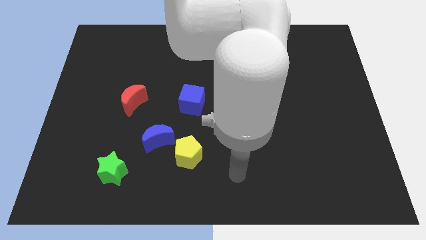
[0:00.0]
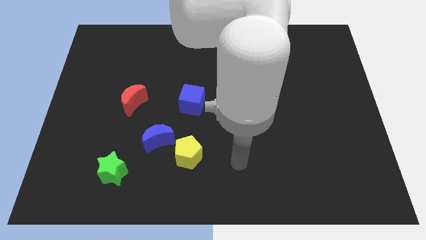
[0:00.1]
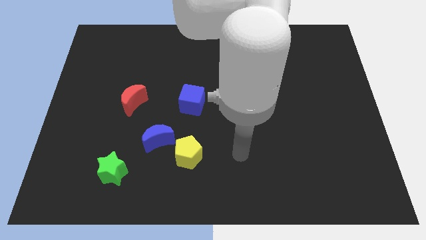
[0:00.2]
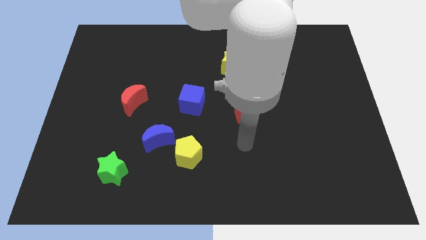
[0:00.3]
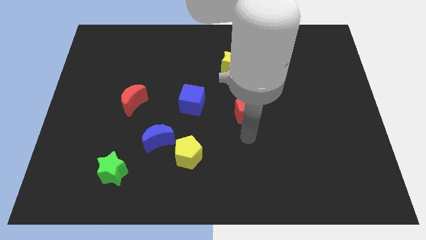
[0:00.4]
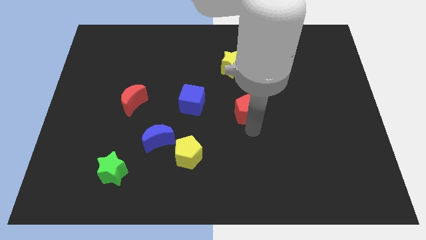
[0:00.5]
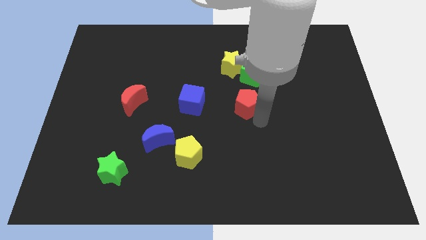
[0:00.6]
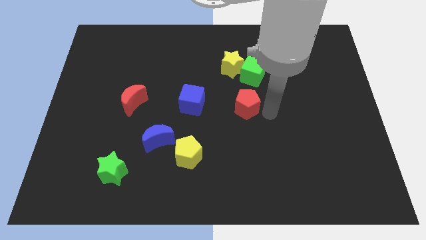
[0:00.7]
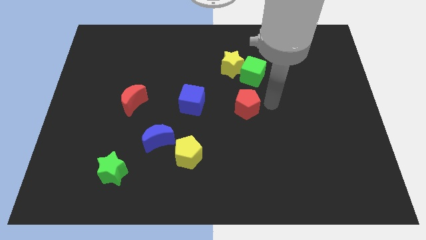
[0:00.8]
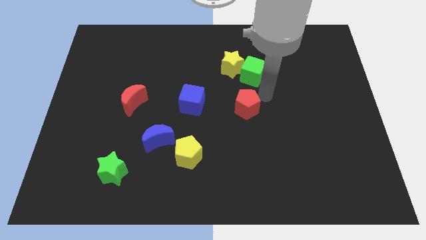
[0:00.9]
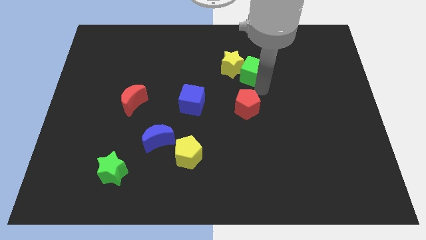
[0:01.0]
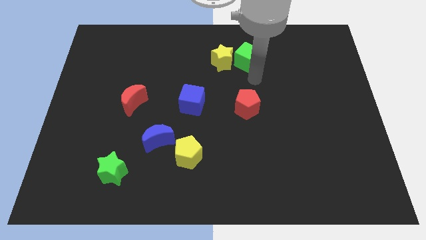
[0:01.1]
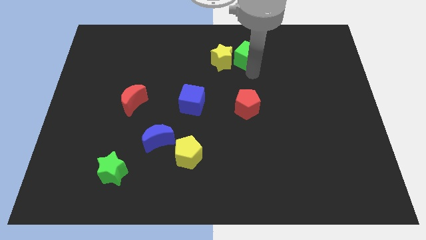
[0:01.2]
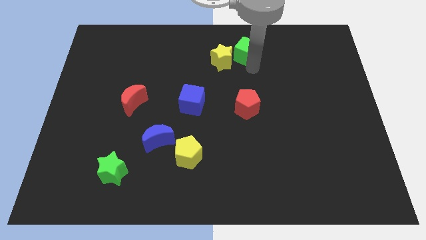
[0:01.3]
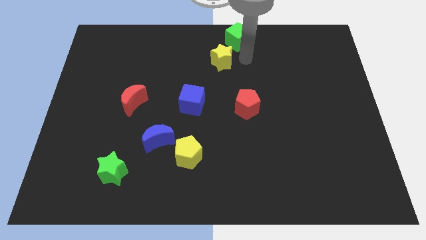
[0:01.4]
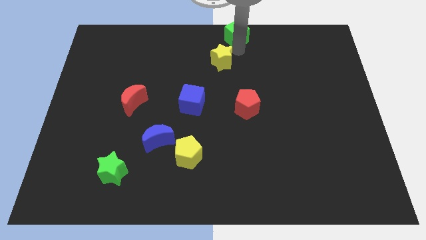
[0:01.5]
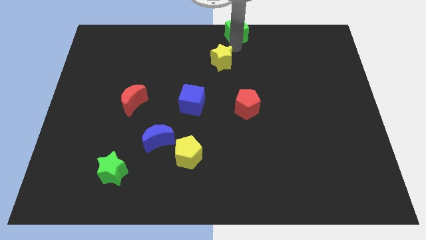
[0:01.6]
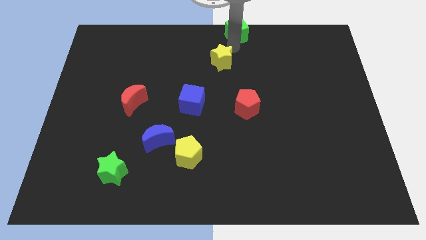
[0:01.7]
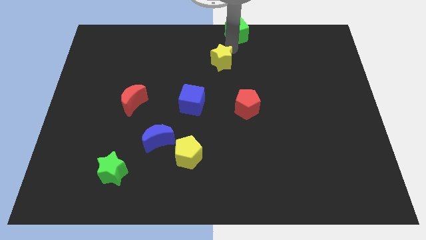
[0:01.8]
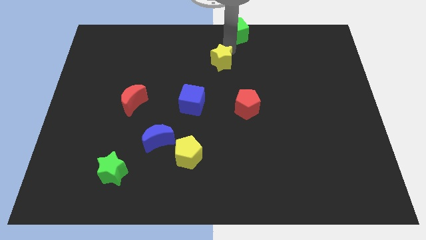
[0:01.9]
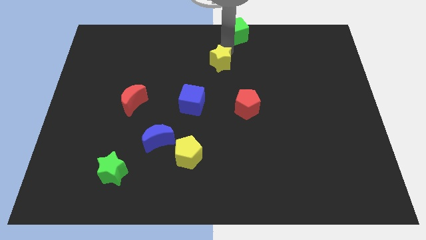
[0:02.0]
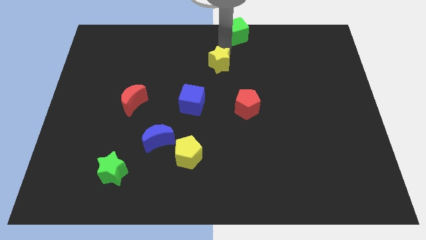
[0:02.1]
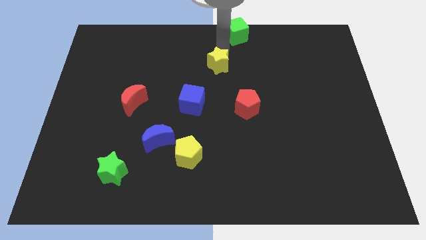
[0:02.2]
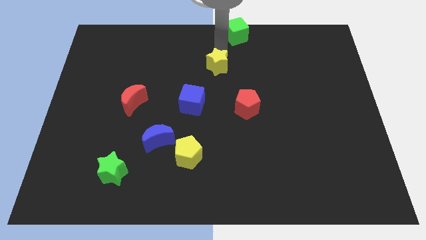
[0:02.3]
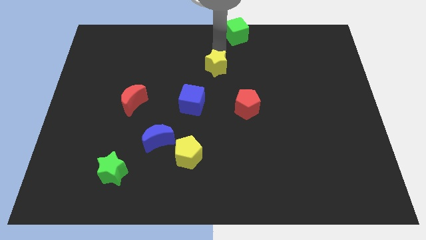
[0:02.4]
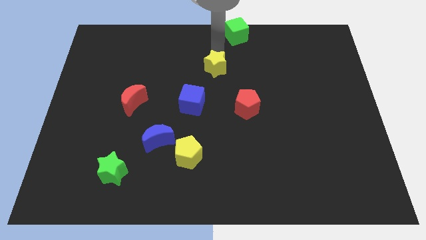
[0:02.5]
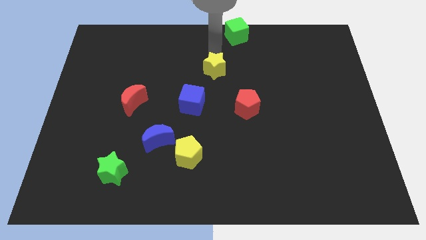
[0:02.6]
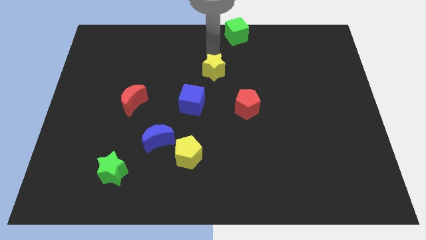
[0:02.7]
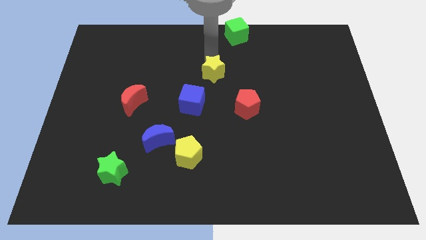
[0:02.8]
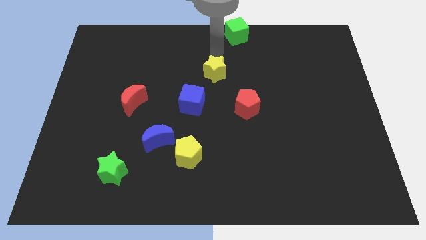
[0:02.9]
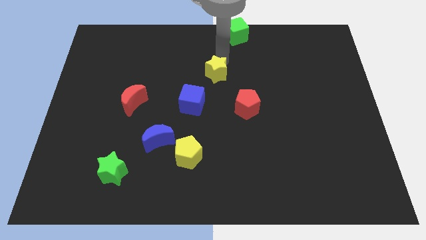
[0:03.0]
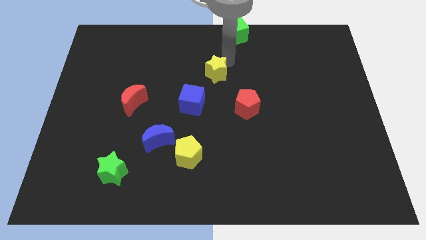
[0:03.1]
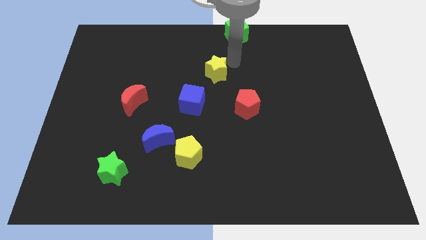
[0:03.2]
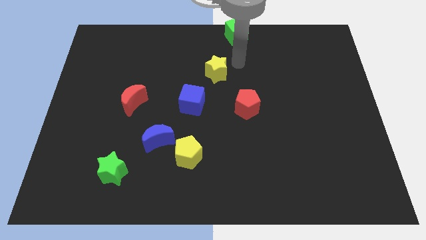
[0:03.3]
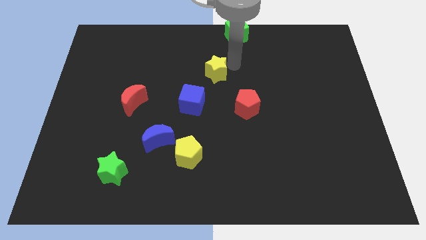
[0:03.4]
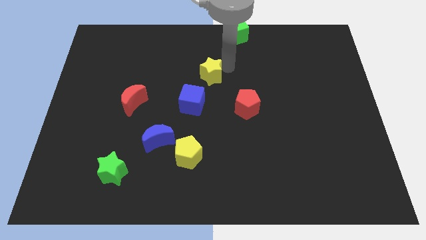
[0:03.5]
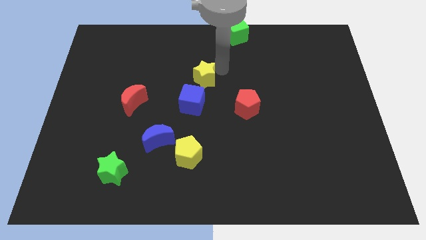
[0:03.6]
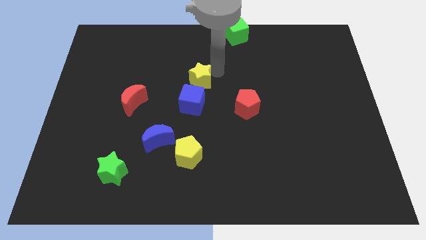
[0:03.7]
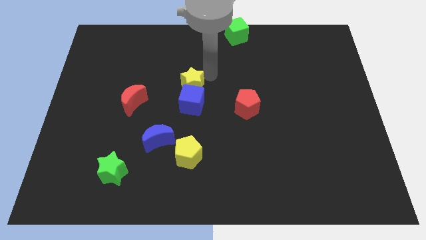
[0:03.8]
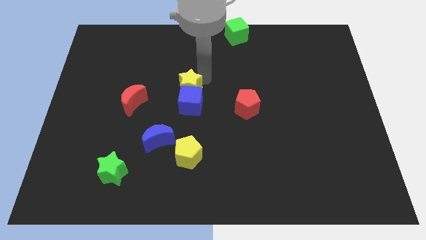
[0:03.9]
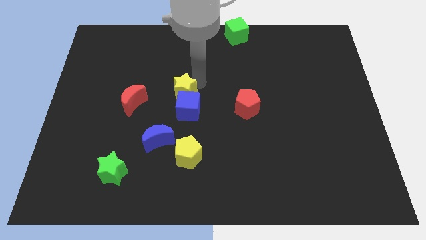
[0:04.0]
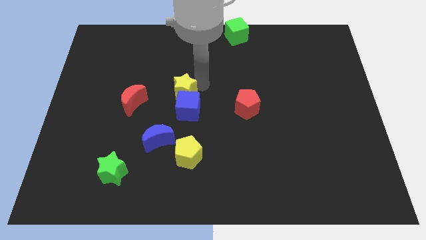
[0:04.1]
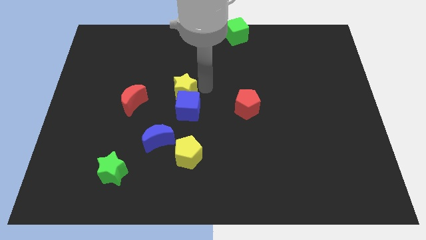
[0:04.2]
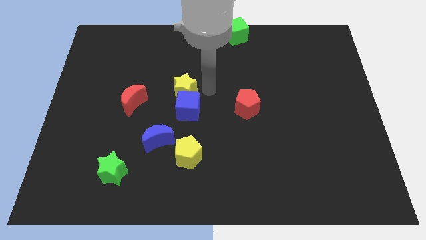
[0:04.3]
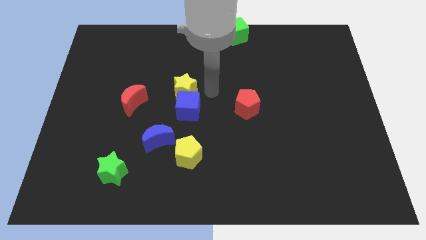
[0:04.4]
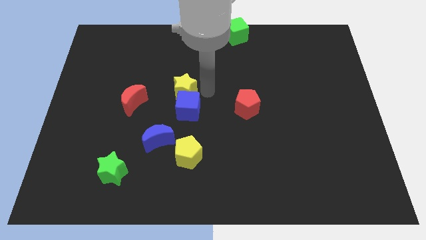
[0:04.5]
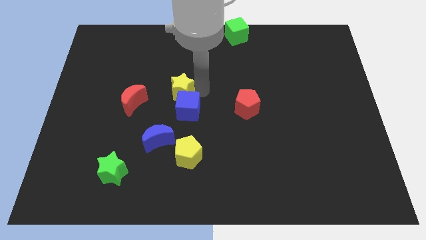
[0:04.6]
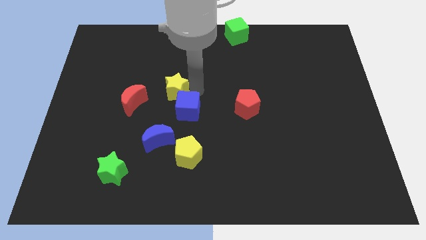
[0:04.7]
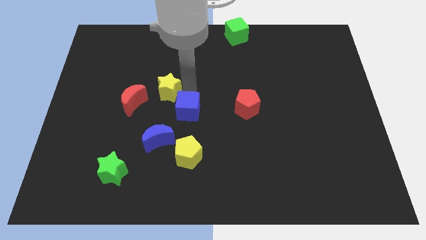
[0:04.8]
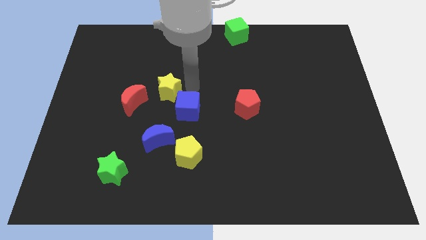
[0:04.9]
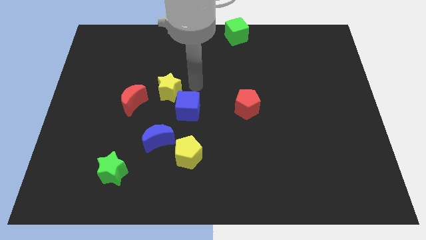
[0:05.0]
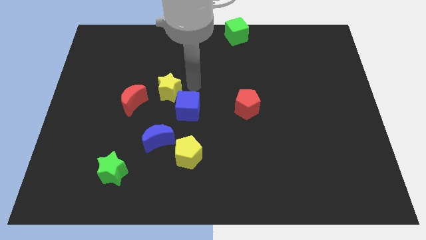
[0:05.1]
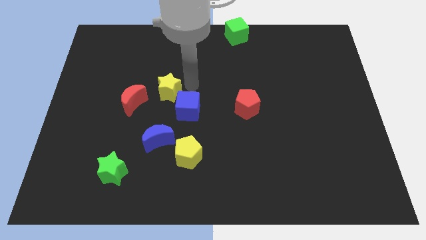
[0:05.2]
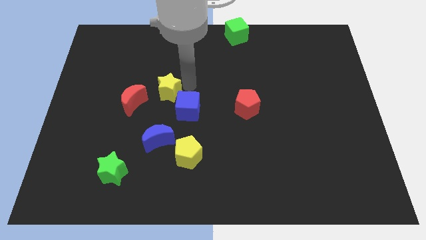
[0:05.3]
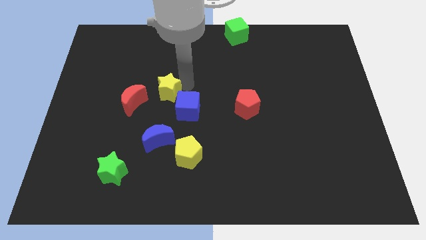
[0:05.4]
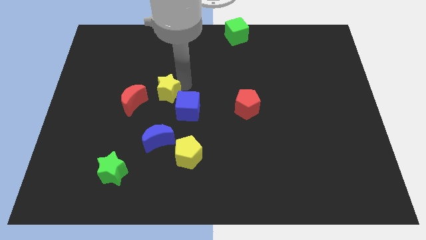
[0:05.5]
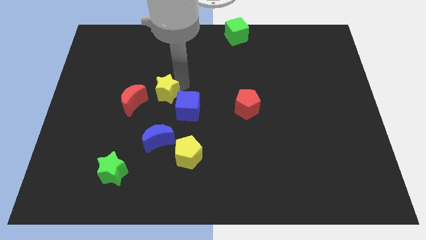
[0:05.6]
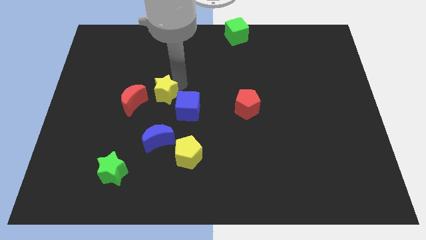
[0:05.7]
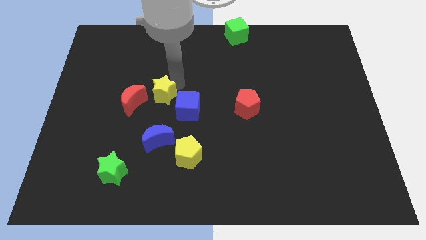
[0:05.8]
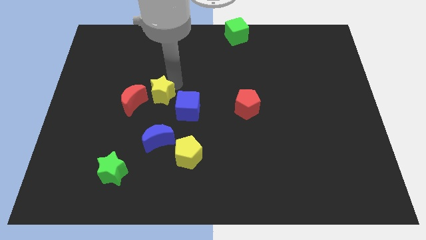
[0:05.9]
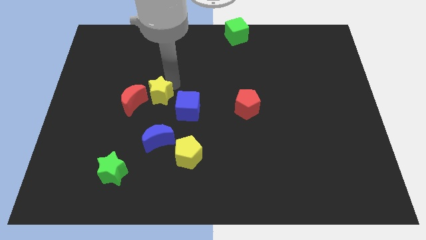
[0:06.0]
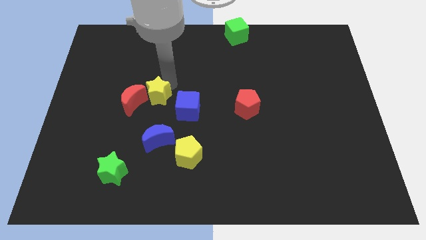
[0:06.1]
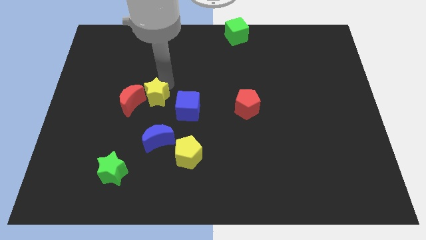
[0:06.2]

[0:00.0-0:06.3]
slide the yellow star close to the red moon
